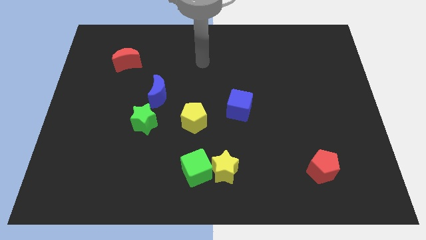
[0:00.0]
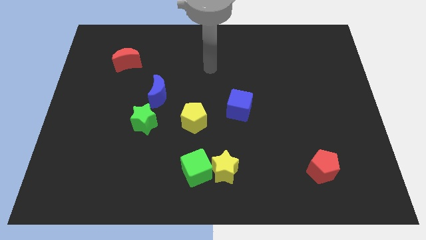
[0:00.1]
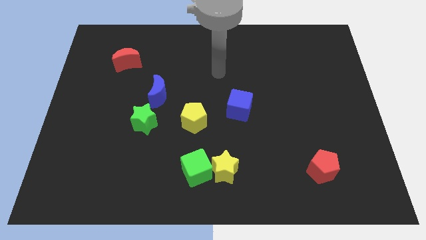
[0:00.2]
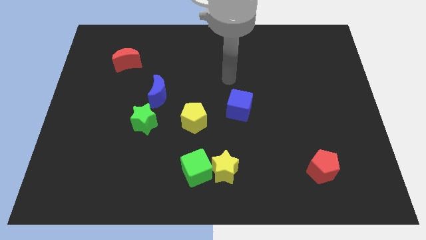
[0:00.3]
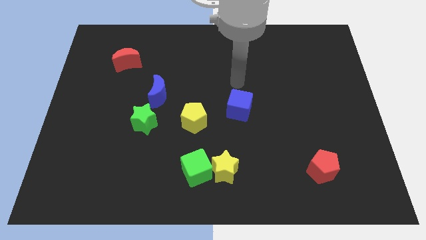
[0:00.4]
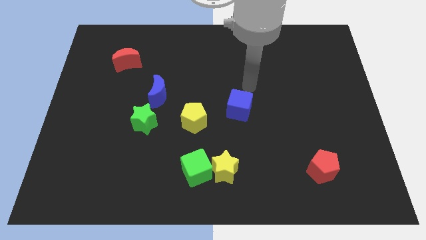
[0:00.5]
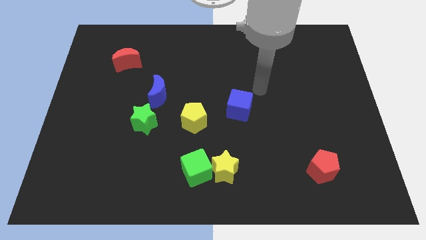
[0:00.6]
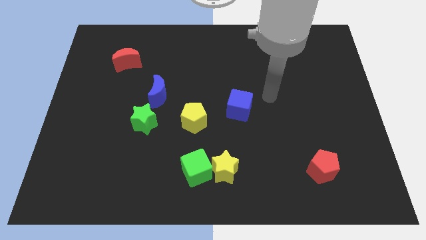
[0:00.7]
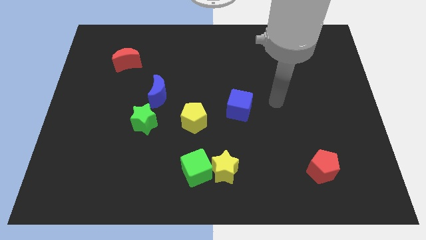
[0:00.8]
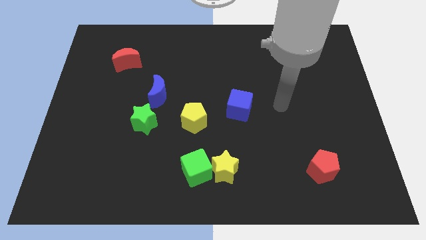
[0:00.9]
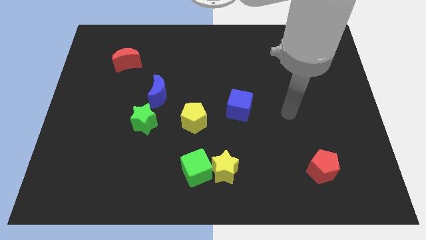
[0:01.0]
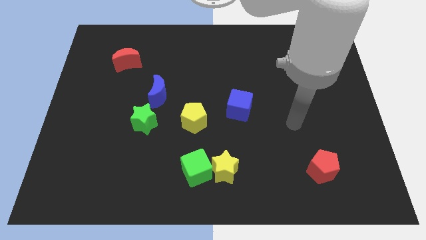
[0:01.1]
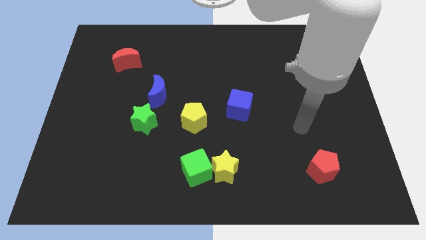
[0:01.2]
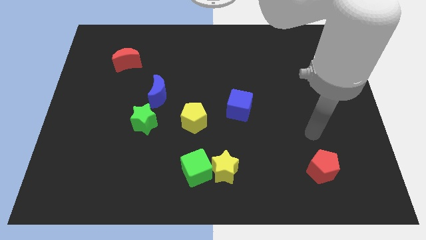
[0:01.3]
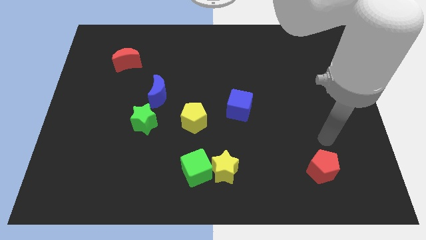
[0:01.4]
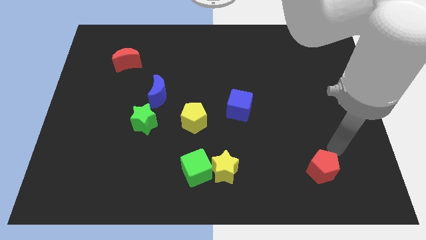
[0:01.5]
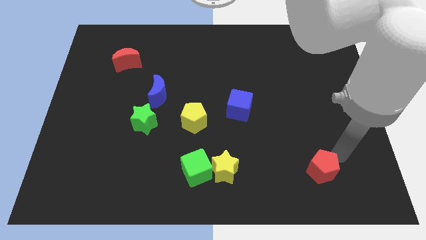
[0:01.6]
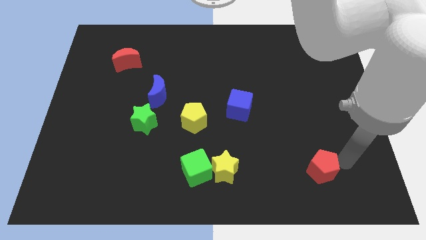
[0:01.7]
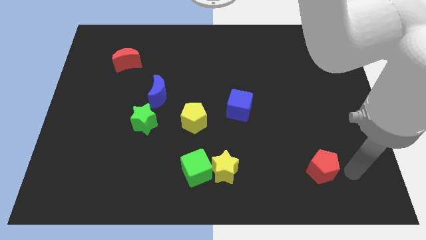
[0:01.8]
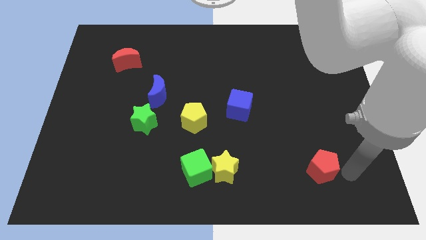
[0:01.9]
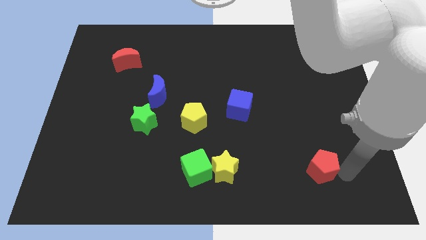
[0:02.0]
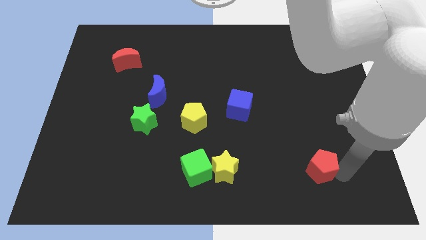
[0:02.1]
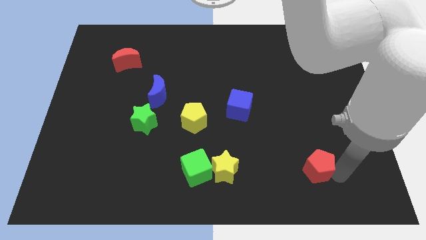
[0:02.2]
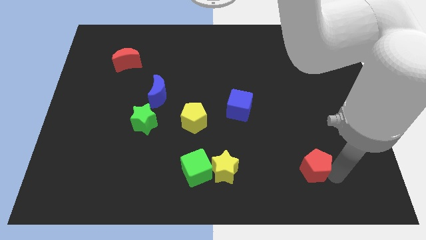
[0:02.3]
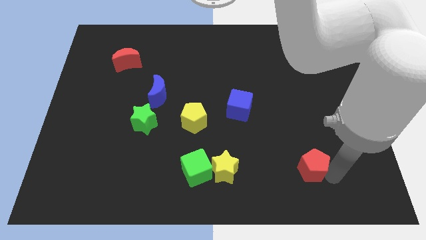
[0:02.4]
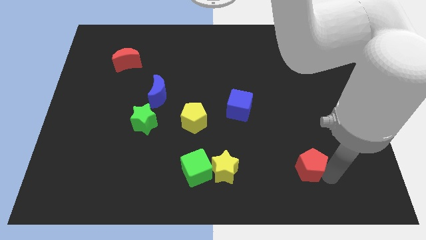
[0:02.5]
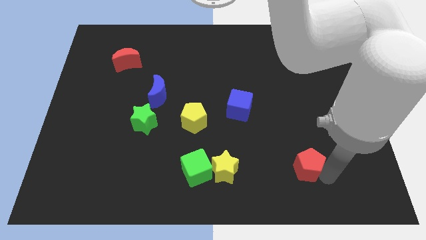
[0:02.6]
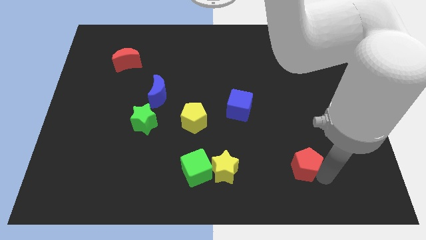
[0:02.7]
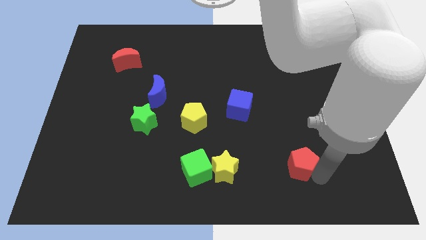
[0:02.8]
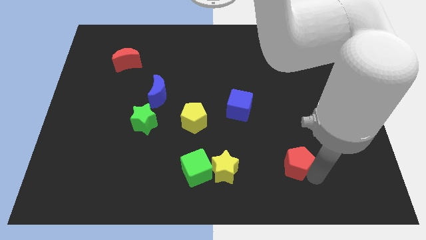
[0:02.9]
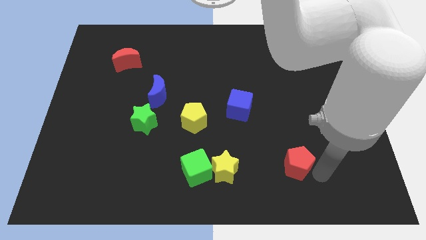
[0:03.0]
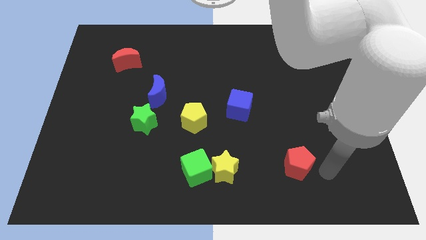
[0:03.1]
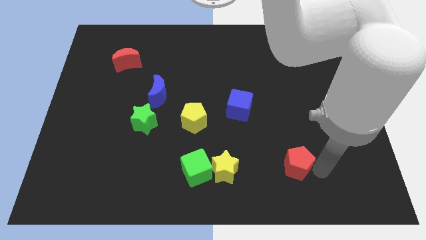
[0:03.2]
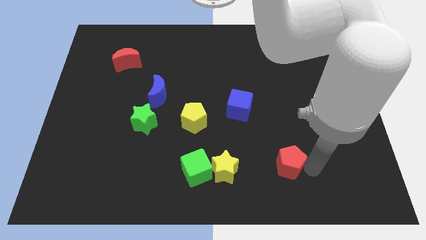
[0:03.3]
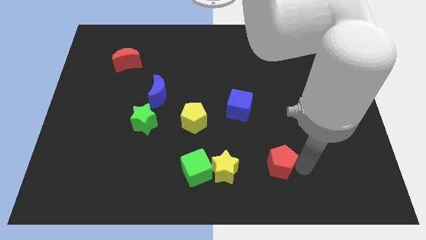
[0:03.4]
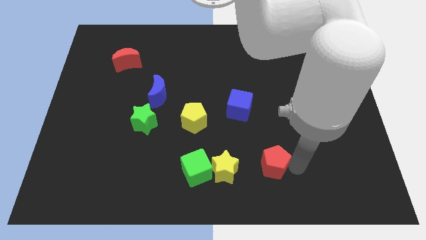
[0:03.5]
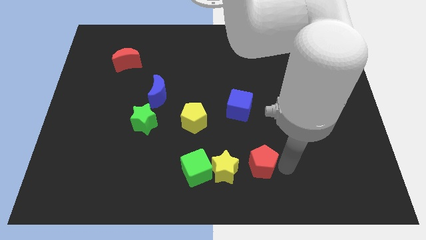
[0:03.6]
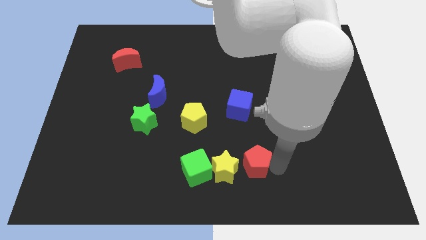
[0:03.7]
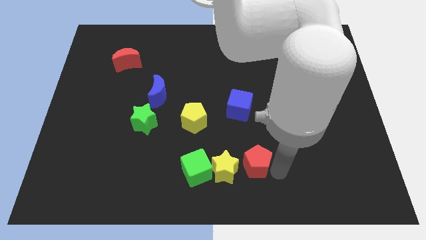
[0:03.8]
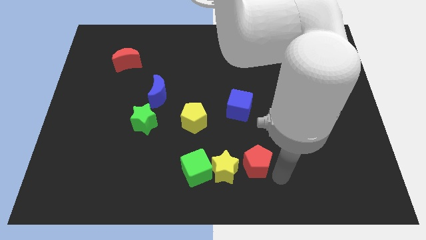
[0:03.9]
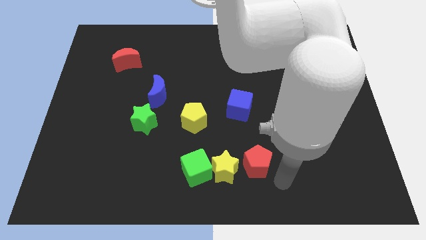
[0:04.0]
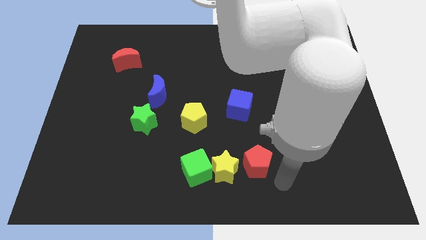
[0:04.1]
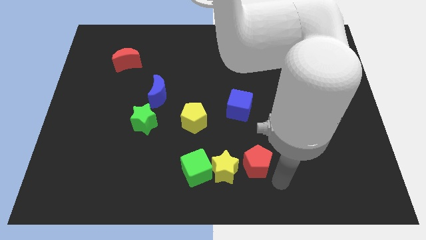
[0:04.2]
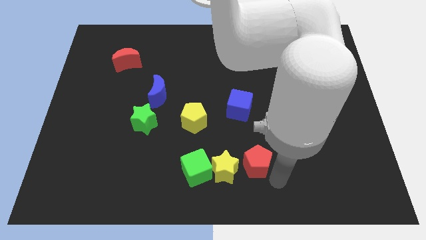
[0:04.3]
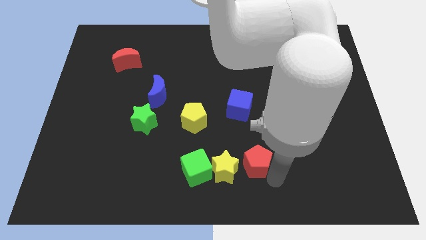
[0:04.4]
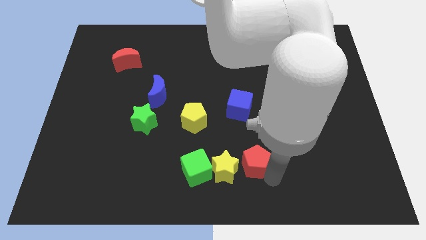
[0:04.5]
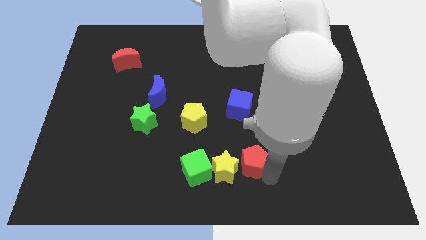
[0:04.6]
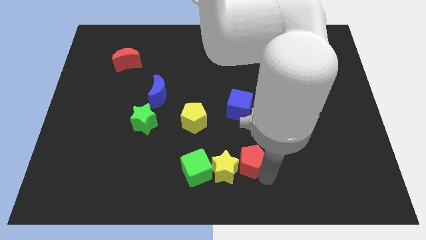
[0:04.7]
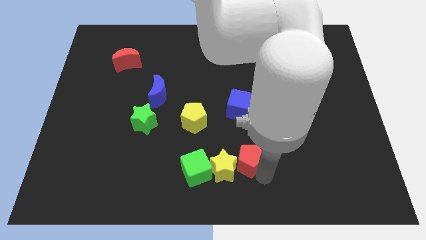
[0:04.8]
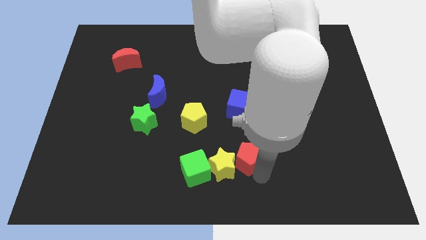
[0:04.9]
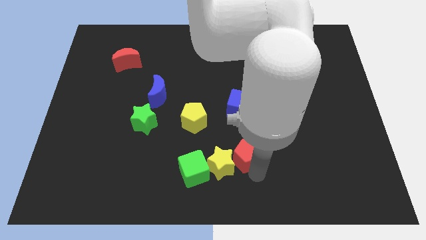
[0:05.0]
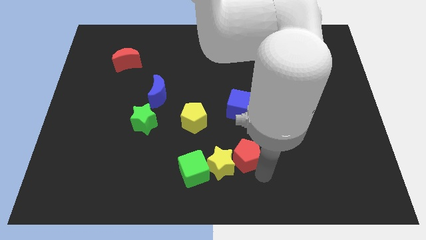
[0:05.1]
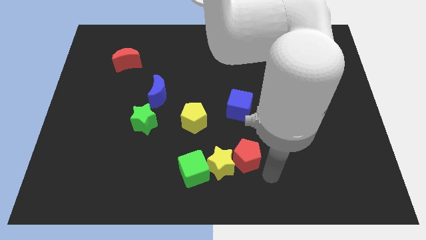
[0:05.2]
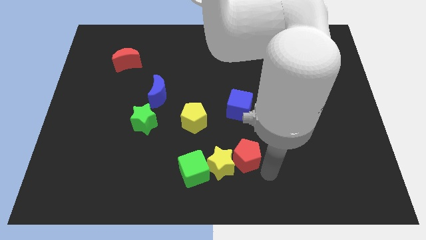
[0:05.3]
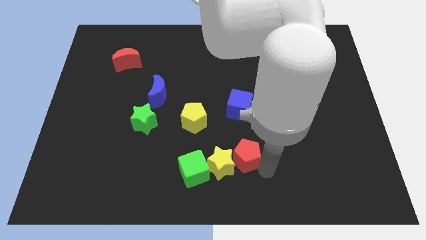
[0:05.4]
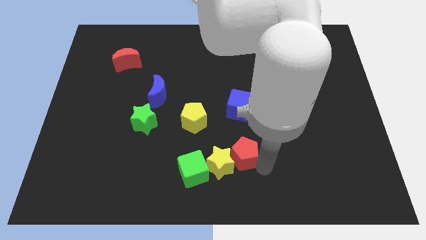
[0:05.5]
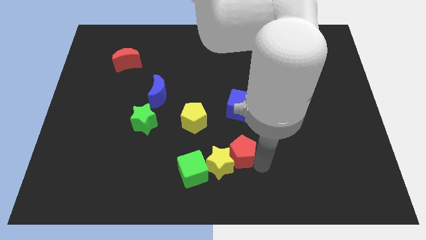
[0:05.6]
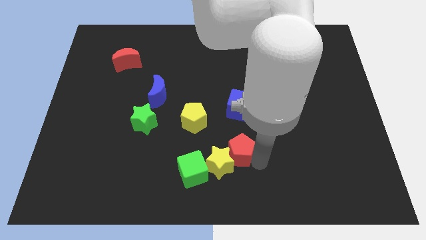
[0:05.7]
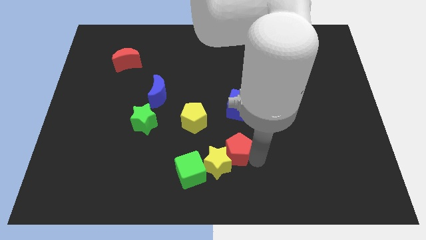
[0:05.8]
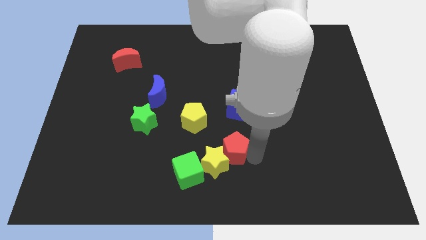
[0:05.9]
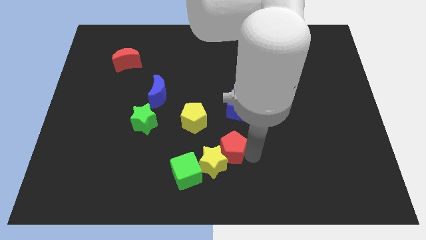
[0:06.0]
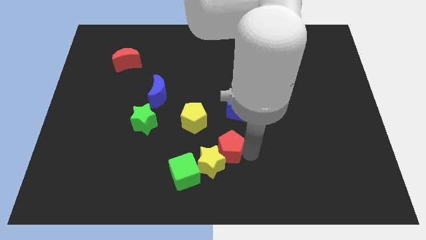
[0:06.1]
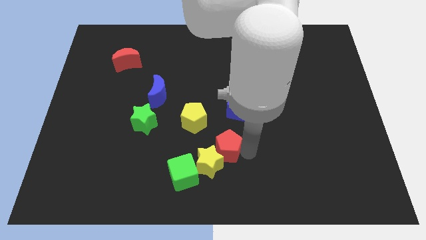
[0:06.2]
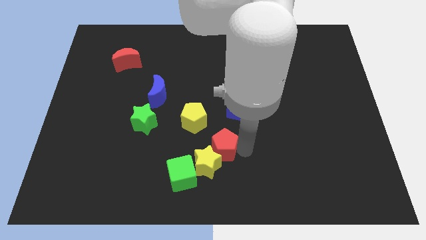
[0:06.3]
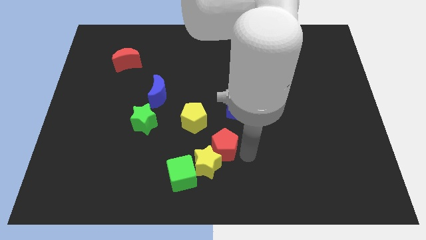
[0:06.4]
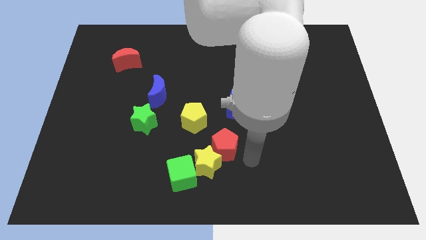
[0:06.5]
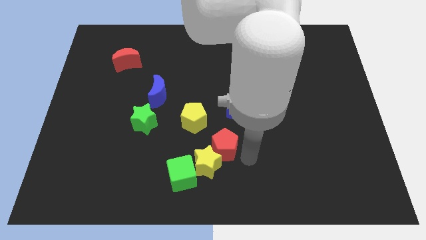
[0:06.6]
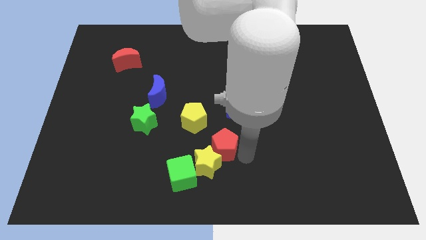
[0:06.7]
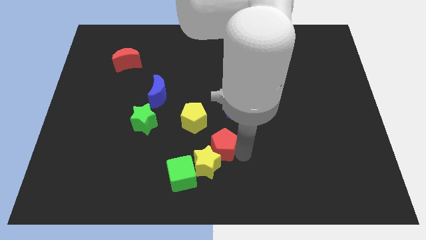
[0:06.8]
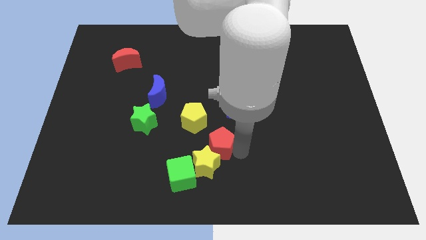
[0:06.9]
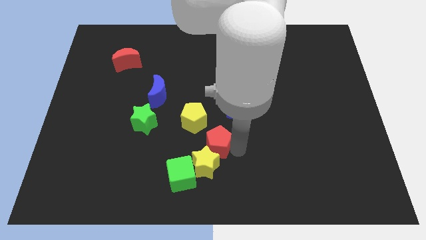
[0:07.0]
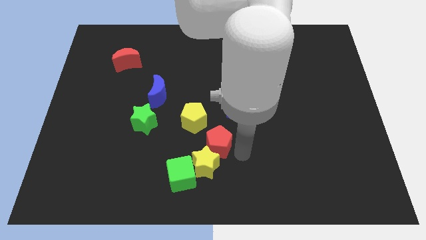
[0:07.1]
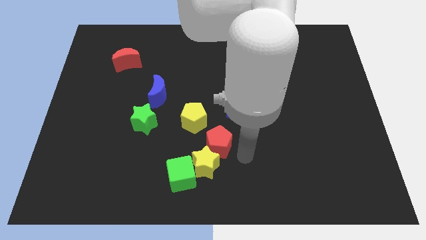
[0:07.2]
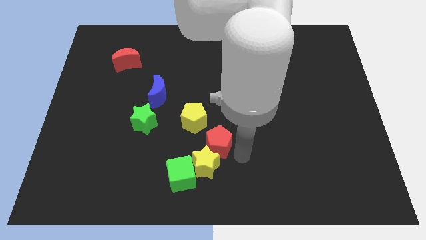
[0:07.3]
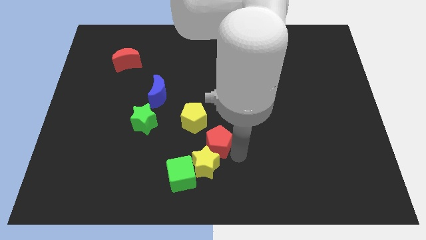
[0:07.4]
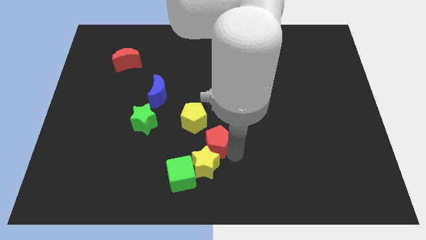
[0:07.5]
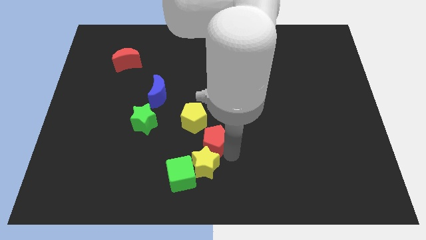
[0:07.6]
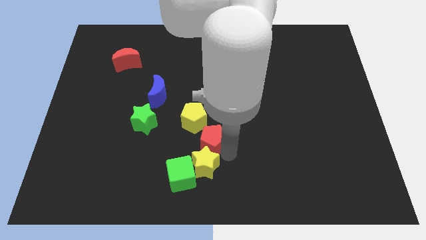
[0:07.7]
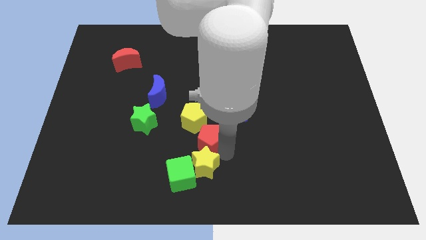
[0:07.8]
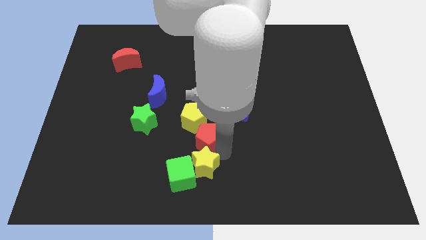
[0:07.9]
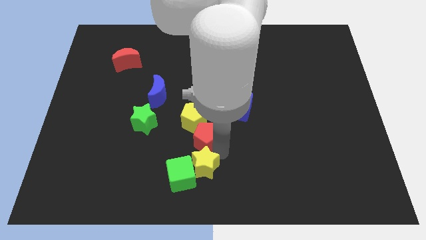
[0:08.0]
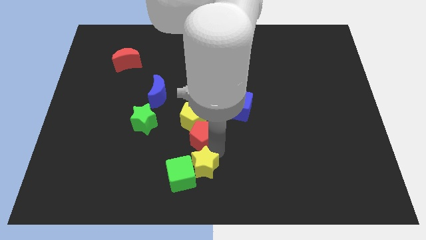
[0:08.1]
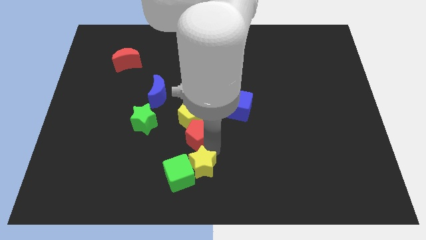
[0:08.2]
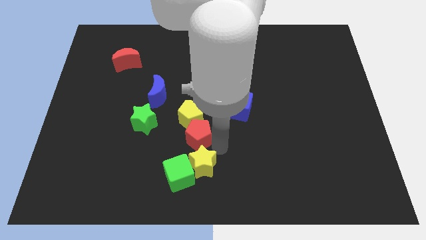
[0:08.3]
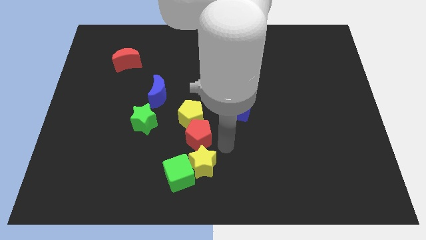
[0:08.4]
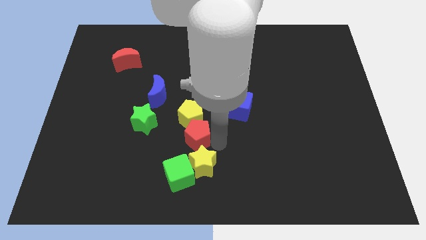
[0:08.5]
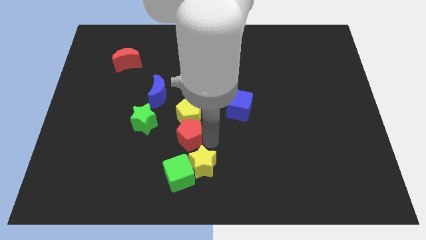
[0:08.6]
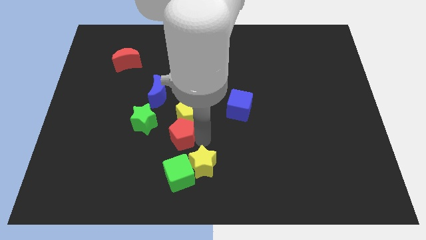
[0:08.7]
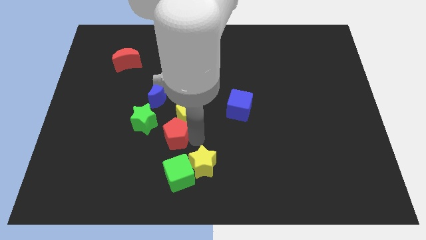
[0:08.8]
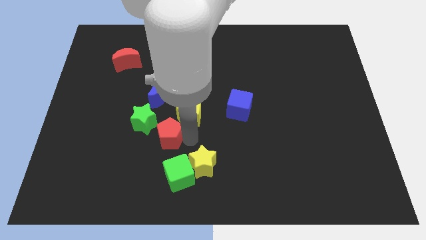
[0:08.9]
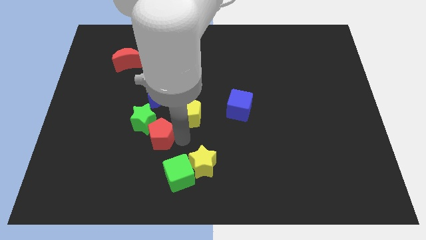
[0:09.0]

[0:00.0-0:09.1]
push the red pentagon next to the green star
